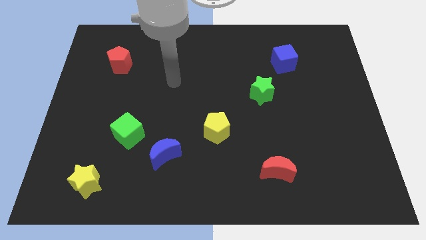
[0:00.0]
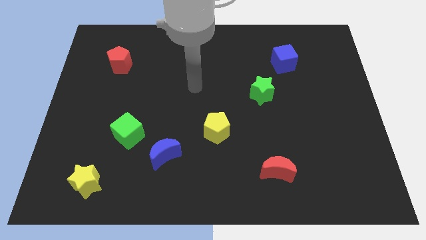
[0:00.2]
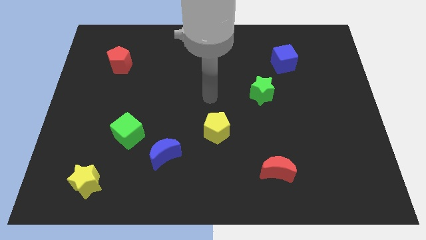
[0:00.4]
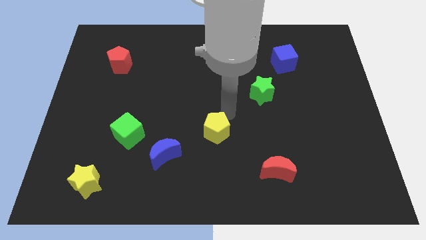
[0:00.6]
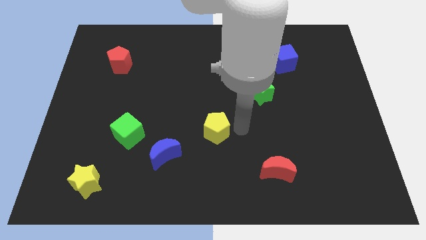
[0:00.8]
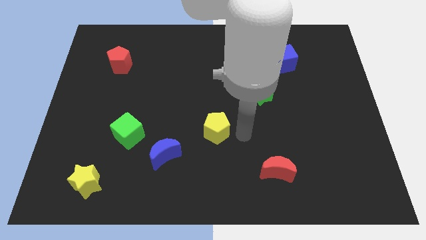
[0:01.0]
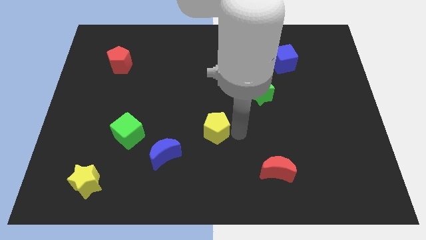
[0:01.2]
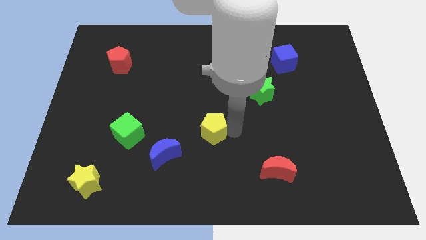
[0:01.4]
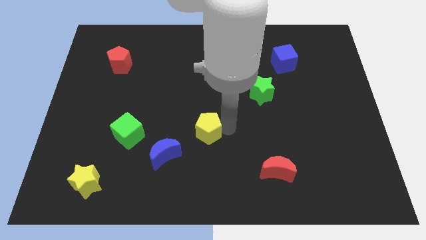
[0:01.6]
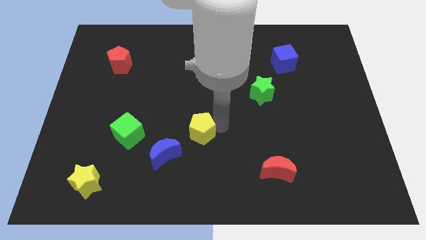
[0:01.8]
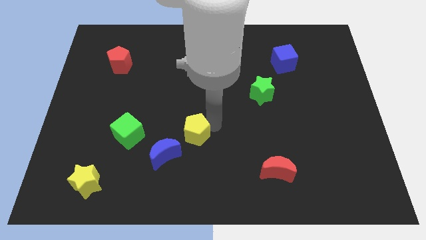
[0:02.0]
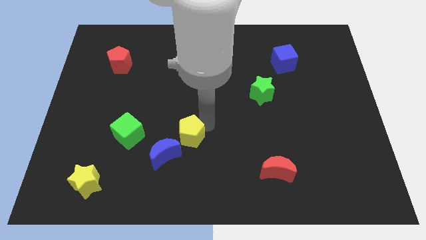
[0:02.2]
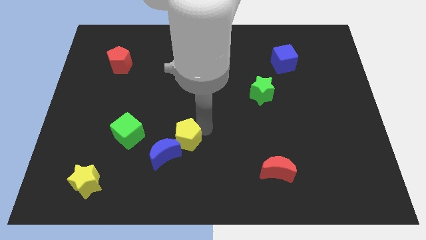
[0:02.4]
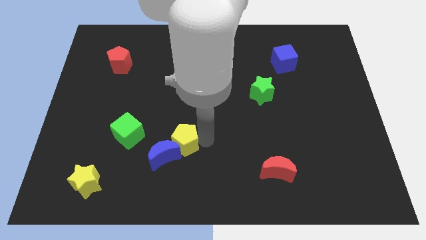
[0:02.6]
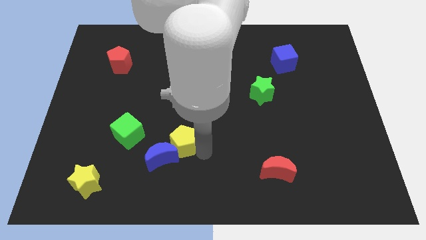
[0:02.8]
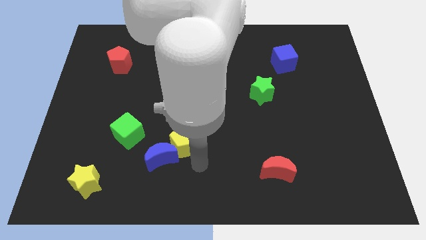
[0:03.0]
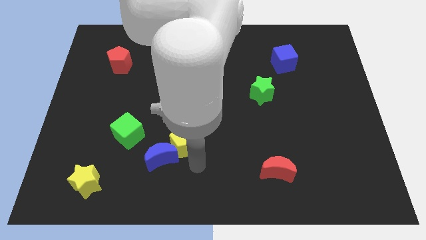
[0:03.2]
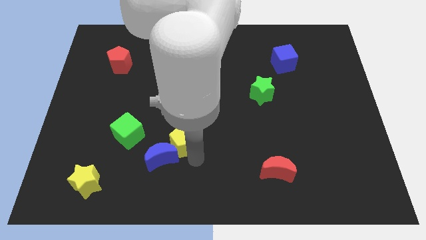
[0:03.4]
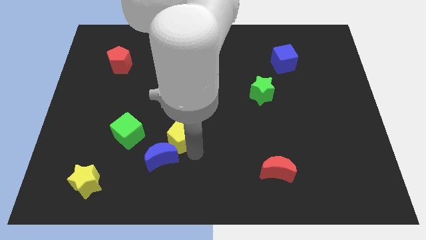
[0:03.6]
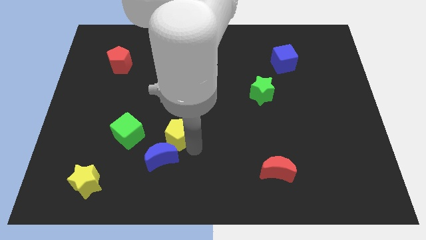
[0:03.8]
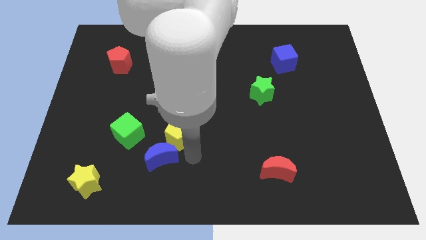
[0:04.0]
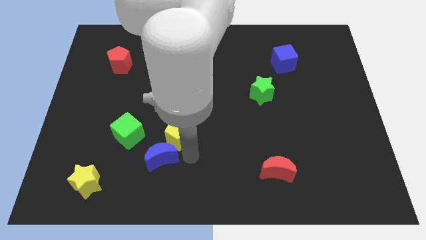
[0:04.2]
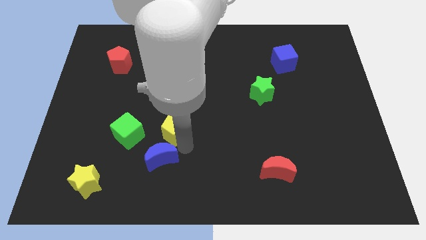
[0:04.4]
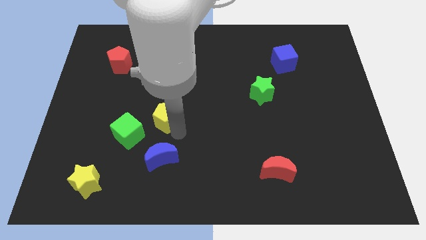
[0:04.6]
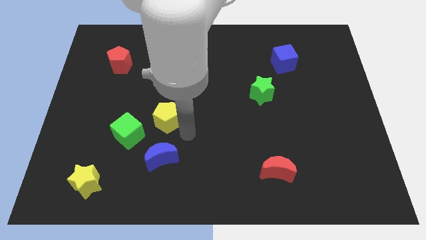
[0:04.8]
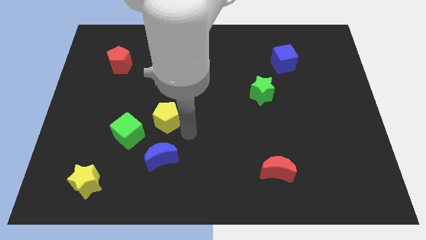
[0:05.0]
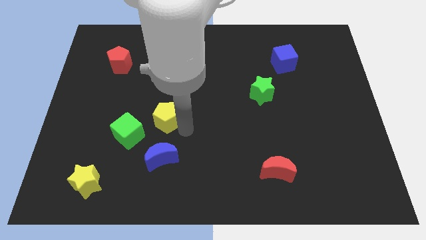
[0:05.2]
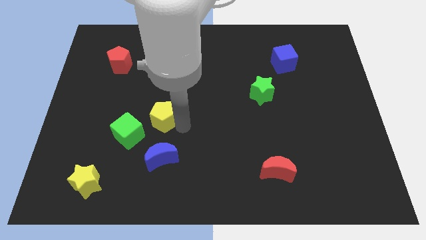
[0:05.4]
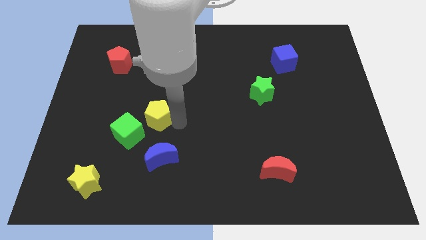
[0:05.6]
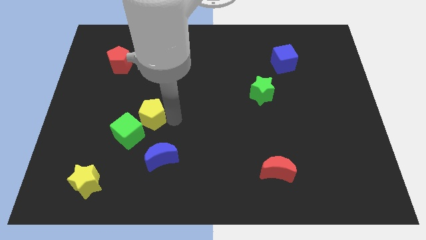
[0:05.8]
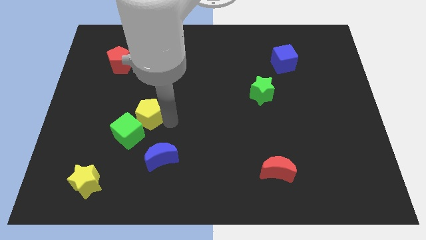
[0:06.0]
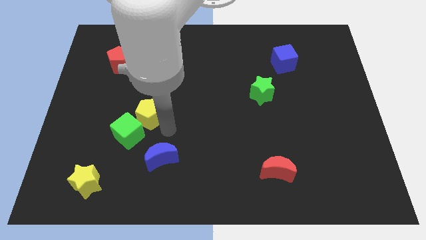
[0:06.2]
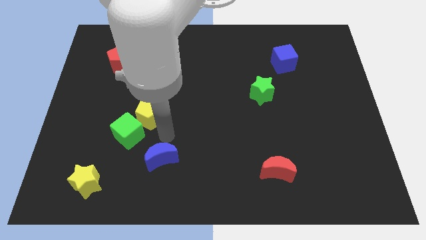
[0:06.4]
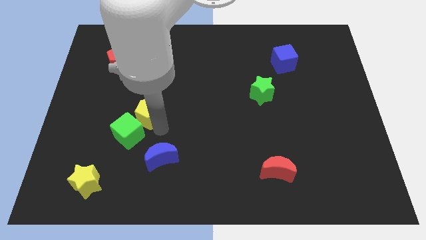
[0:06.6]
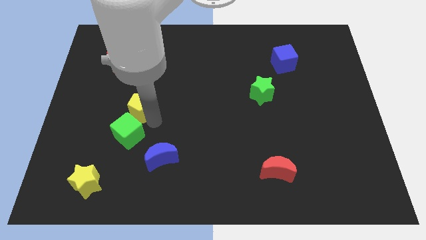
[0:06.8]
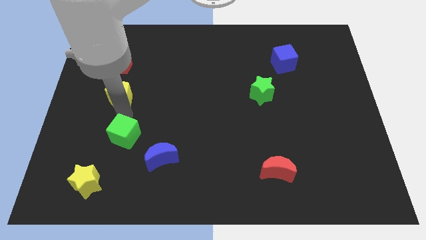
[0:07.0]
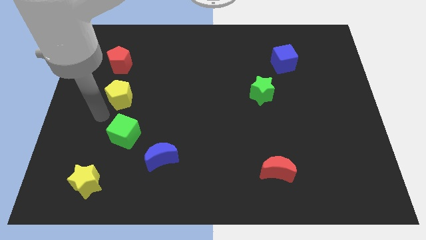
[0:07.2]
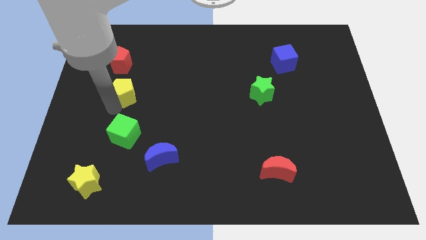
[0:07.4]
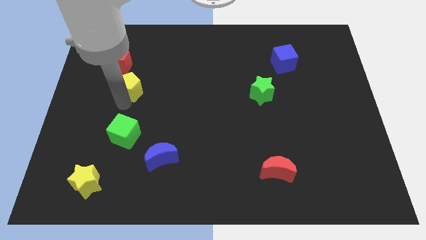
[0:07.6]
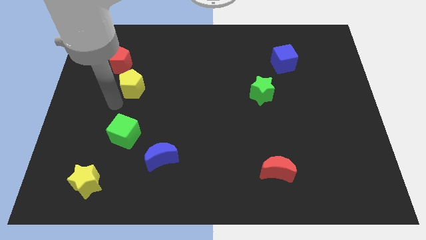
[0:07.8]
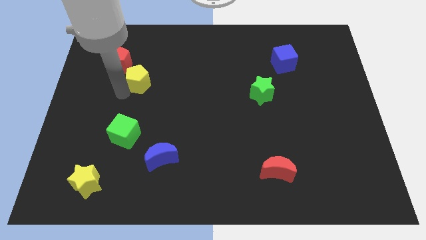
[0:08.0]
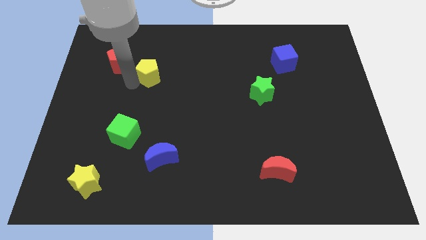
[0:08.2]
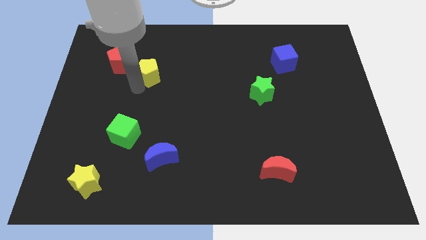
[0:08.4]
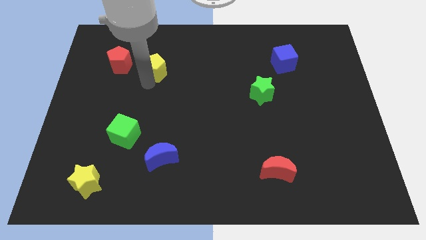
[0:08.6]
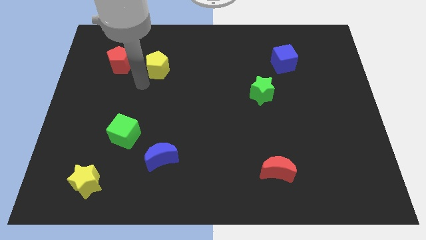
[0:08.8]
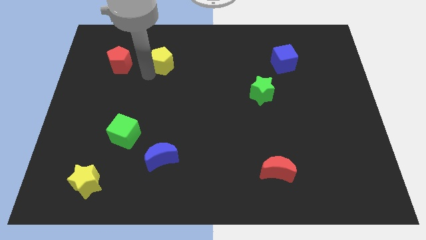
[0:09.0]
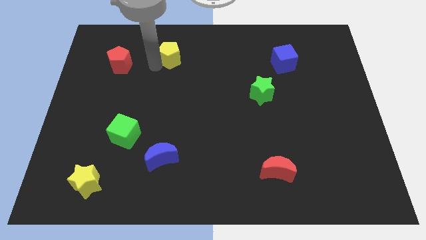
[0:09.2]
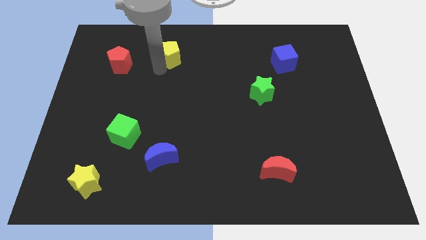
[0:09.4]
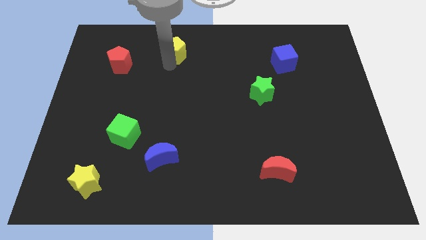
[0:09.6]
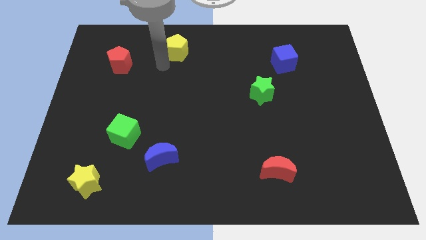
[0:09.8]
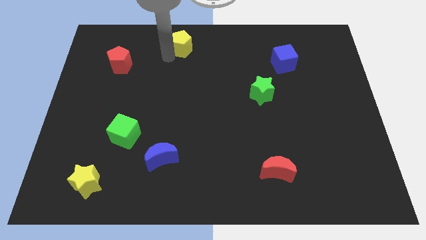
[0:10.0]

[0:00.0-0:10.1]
move the yellow pentagon to the towards your base

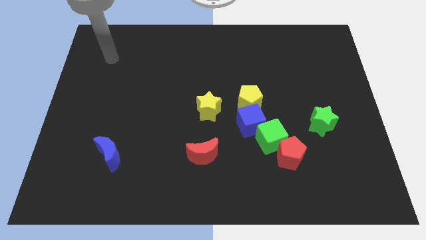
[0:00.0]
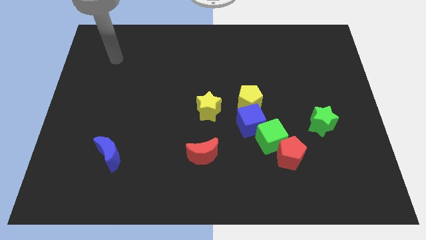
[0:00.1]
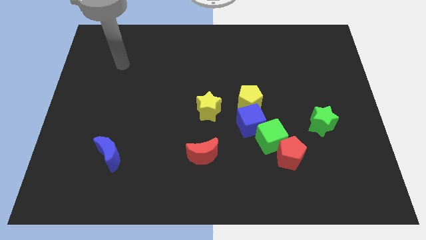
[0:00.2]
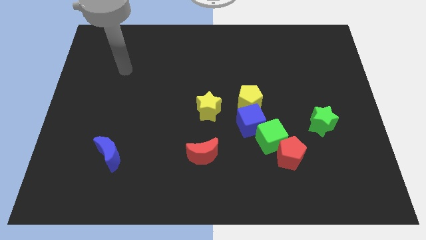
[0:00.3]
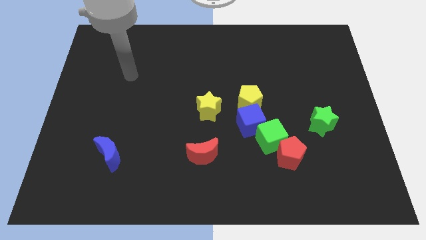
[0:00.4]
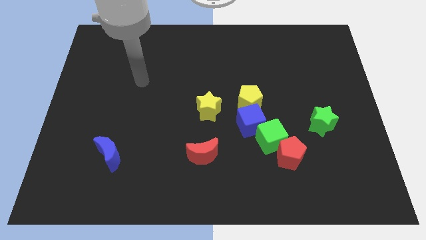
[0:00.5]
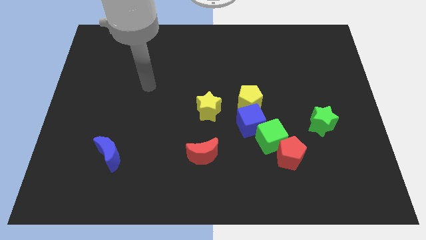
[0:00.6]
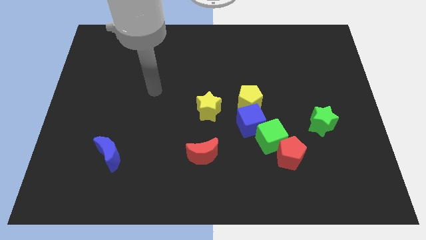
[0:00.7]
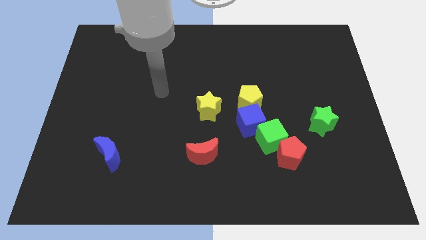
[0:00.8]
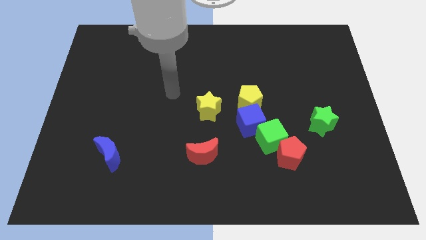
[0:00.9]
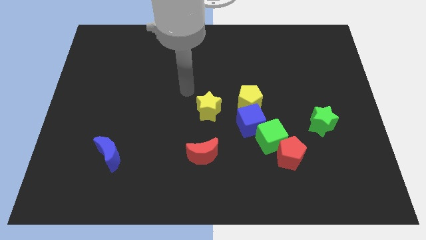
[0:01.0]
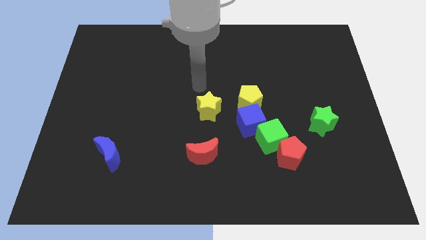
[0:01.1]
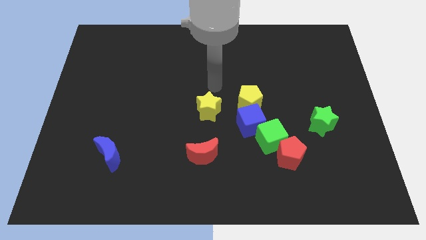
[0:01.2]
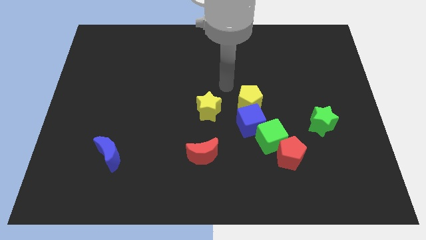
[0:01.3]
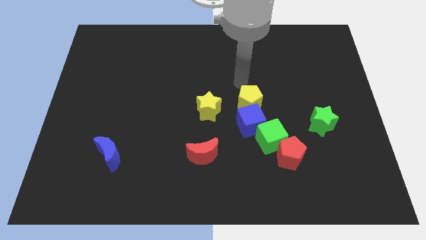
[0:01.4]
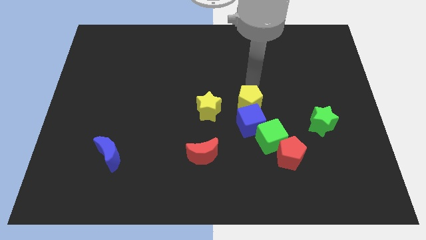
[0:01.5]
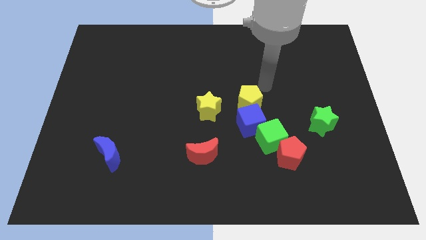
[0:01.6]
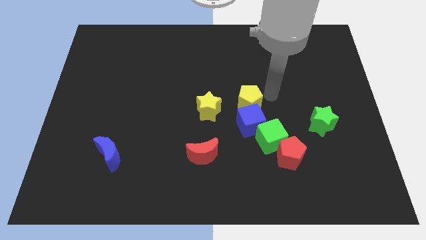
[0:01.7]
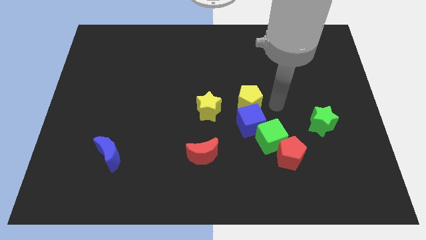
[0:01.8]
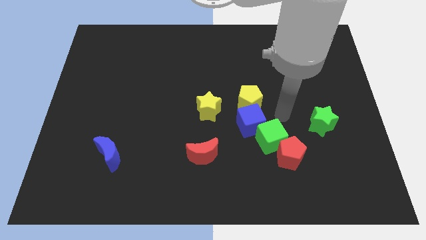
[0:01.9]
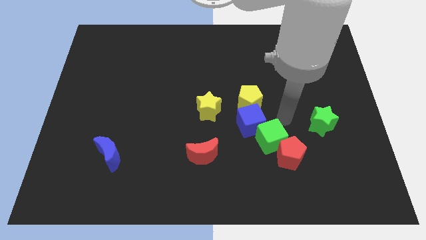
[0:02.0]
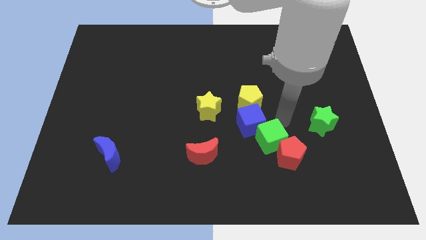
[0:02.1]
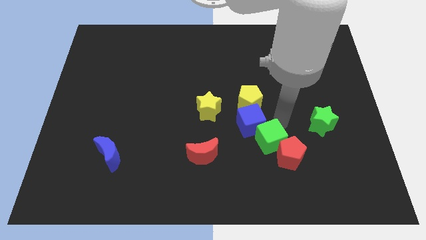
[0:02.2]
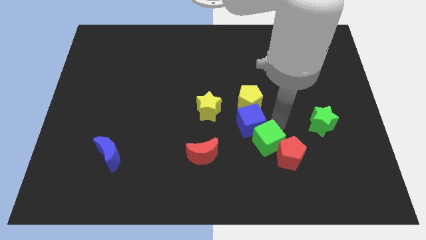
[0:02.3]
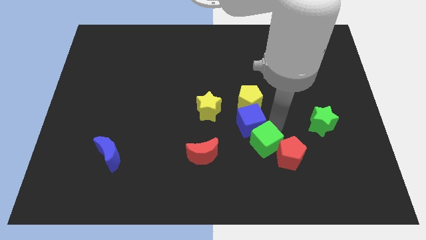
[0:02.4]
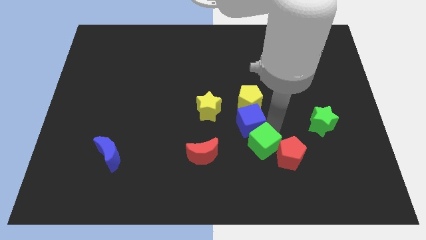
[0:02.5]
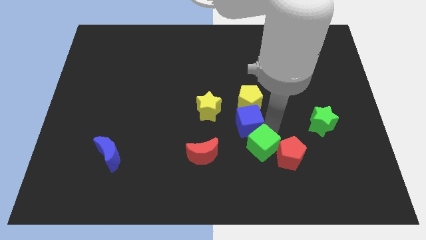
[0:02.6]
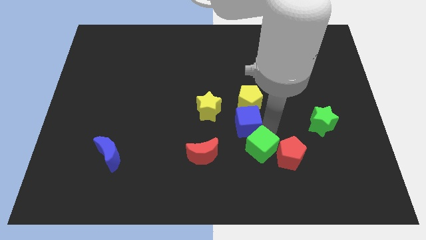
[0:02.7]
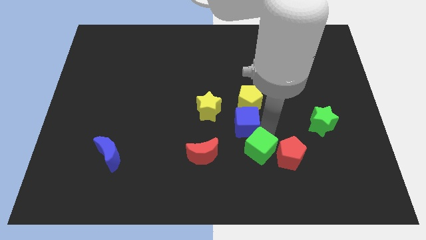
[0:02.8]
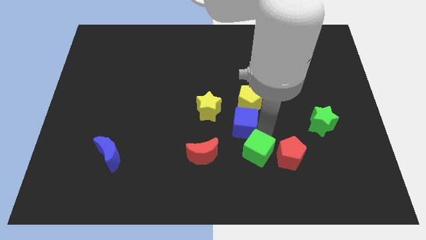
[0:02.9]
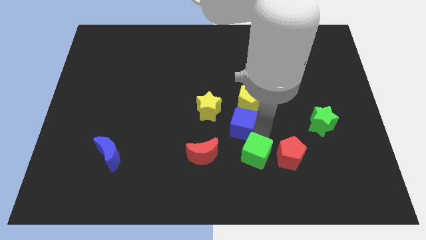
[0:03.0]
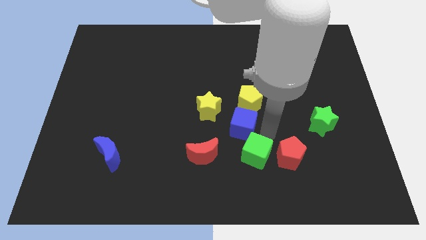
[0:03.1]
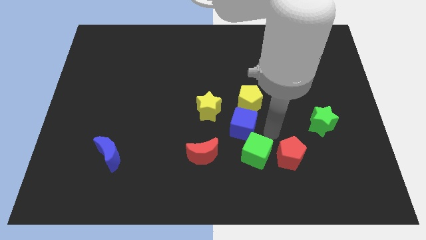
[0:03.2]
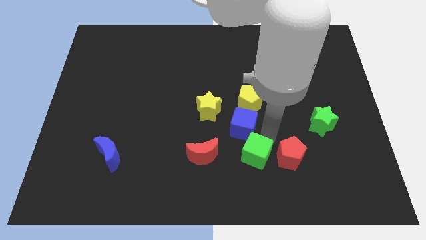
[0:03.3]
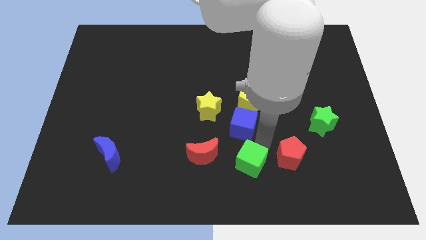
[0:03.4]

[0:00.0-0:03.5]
slide the green cube to the bottom side
